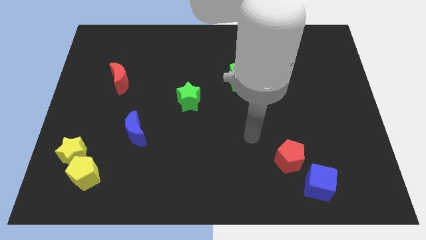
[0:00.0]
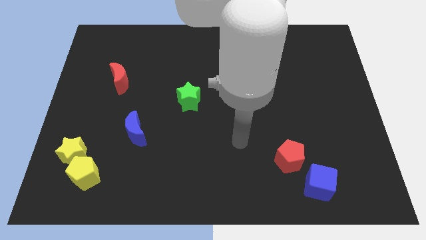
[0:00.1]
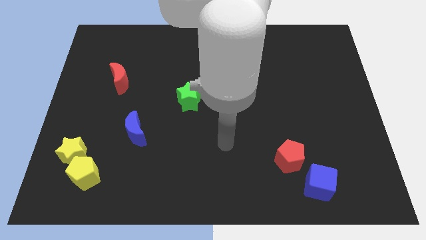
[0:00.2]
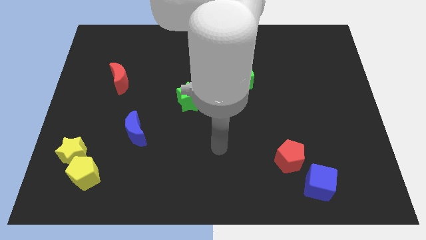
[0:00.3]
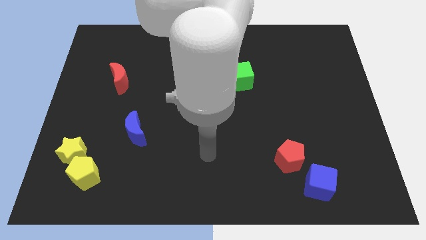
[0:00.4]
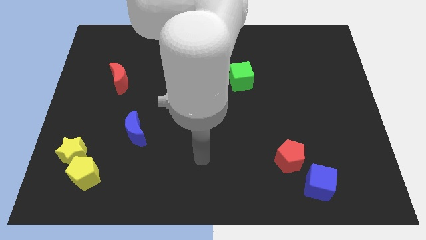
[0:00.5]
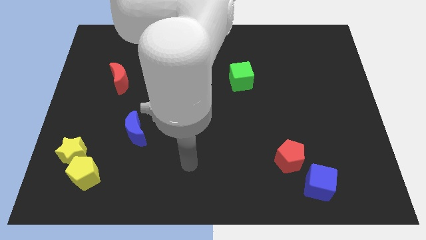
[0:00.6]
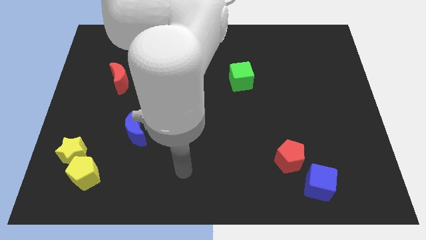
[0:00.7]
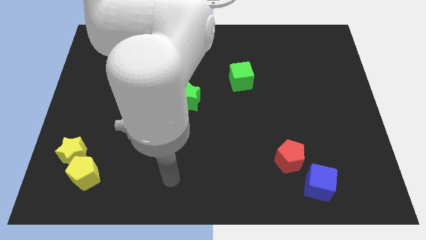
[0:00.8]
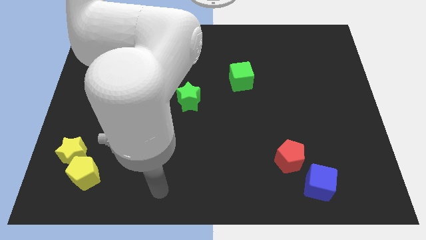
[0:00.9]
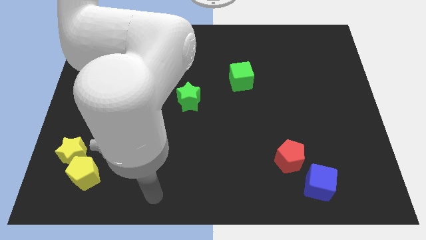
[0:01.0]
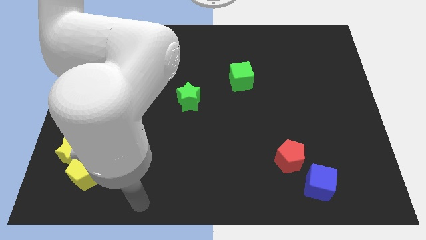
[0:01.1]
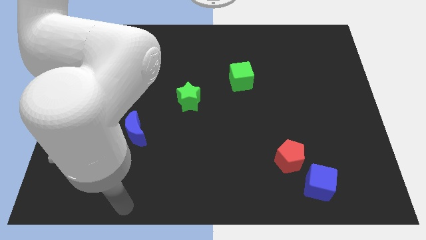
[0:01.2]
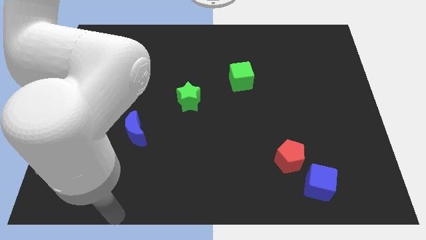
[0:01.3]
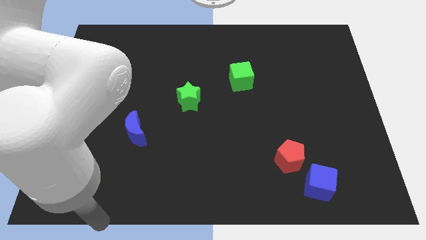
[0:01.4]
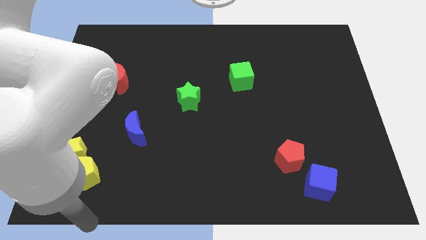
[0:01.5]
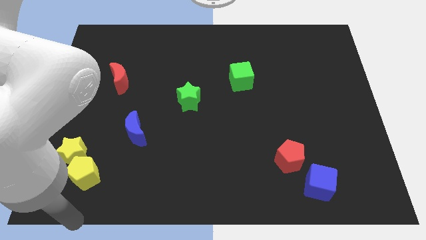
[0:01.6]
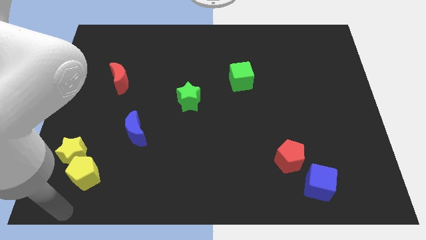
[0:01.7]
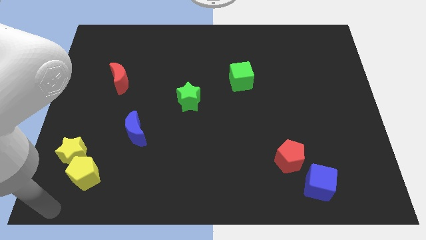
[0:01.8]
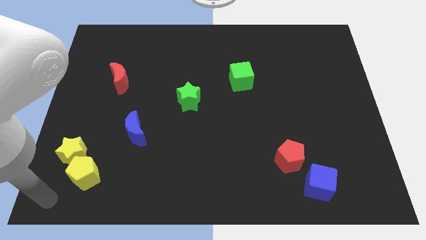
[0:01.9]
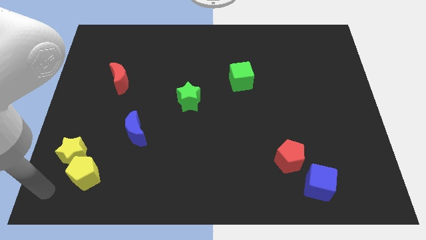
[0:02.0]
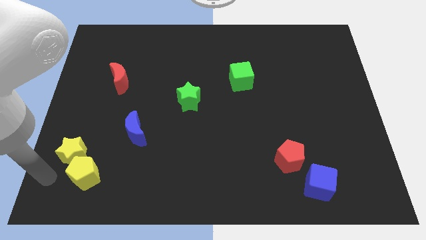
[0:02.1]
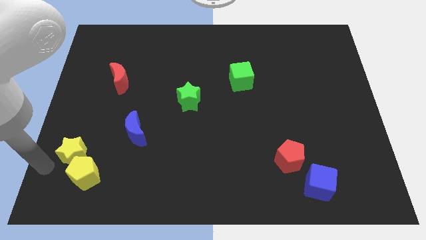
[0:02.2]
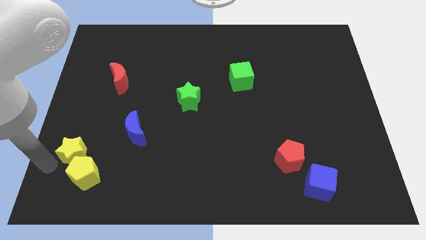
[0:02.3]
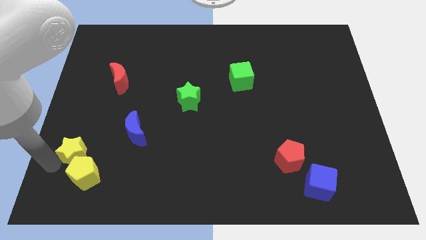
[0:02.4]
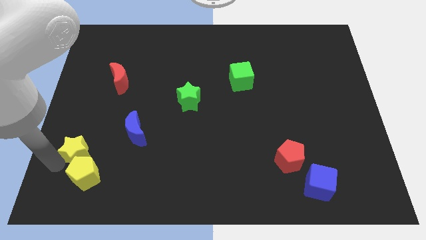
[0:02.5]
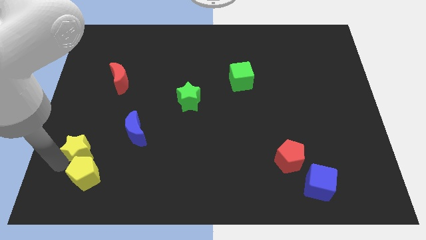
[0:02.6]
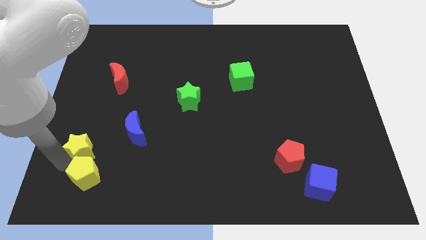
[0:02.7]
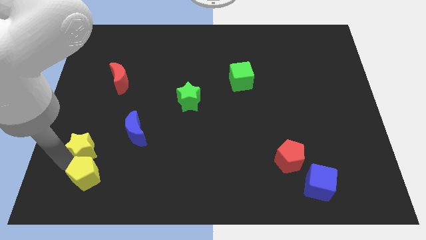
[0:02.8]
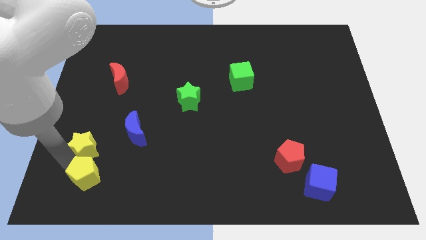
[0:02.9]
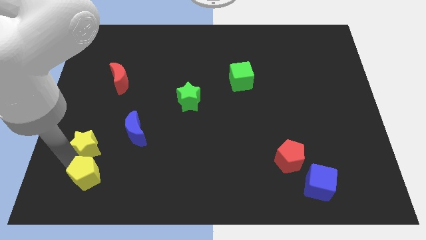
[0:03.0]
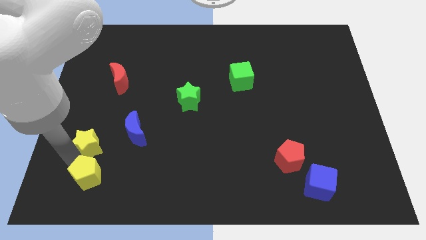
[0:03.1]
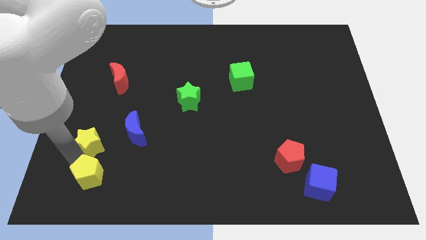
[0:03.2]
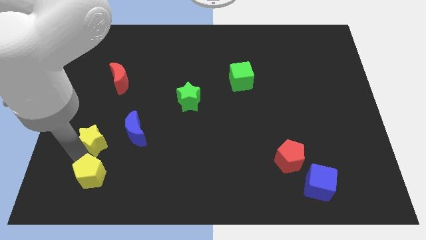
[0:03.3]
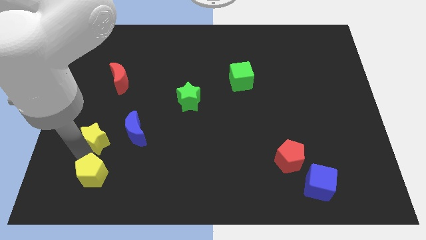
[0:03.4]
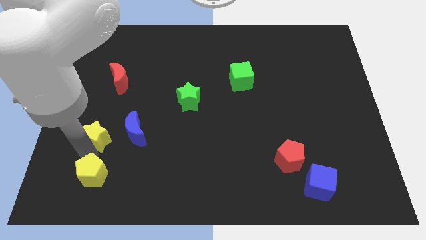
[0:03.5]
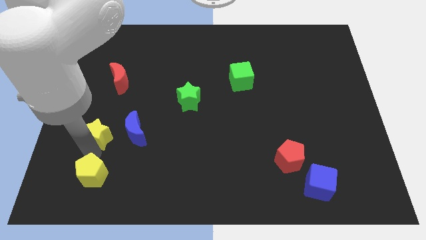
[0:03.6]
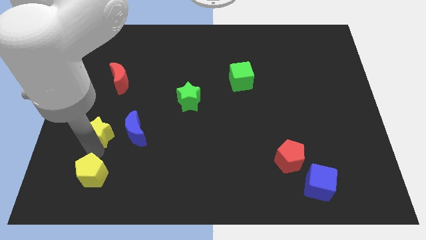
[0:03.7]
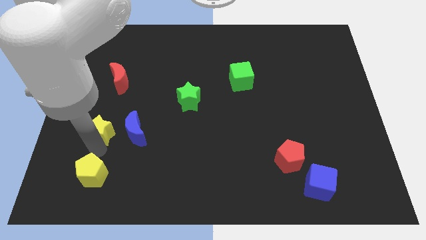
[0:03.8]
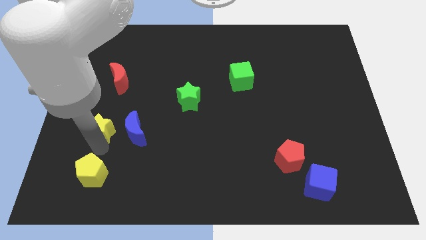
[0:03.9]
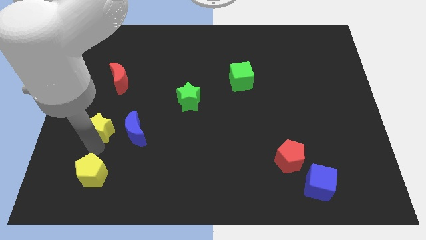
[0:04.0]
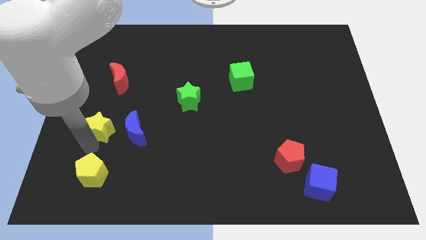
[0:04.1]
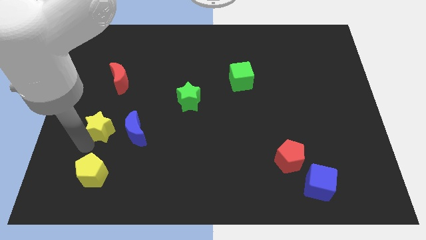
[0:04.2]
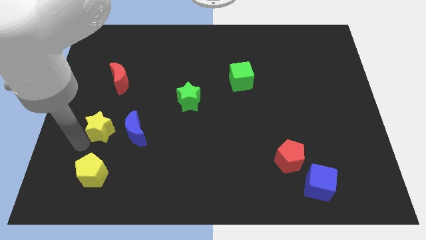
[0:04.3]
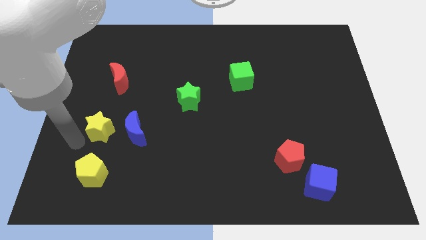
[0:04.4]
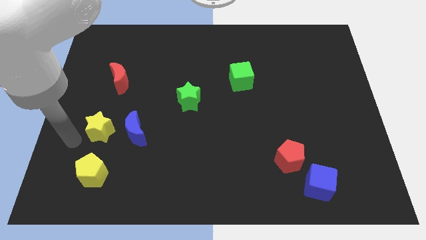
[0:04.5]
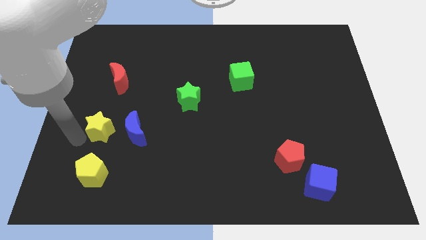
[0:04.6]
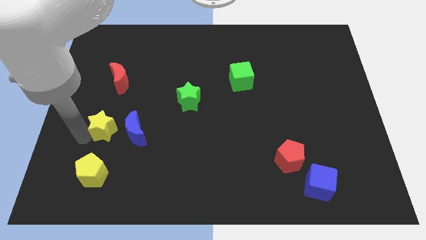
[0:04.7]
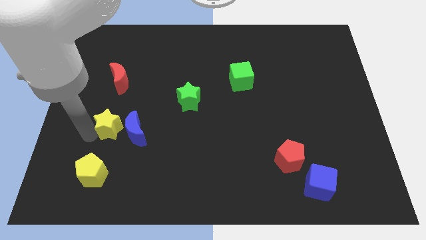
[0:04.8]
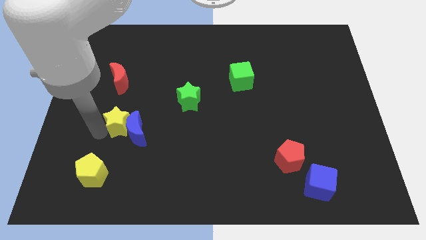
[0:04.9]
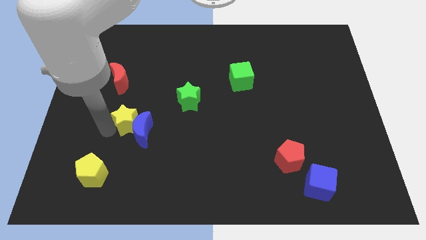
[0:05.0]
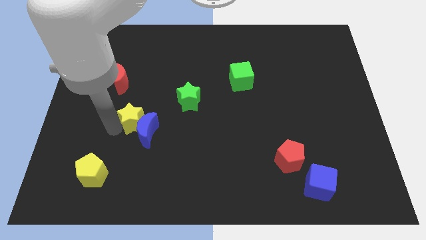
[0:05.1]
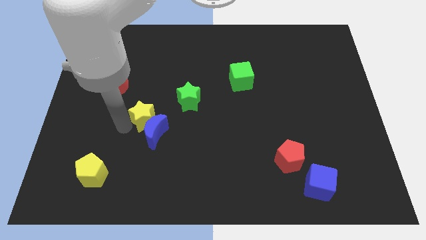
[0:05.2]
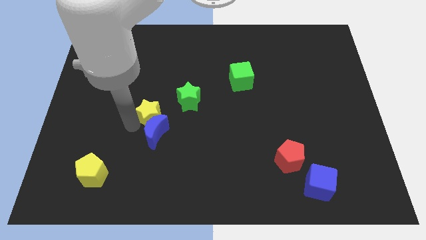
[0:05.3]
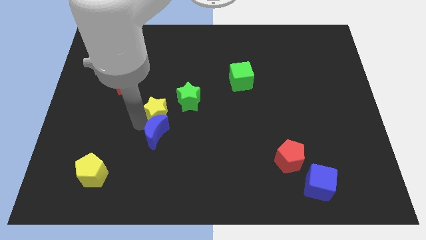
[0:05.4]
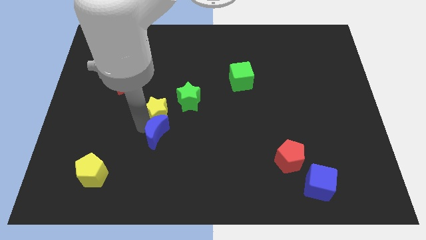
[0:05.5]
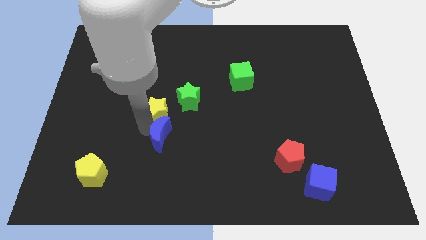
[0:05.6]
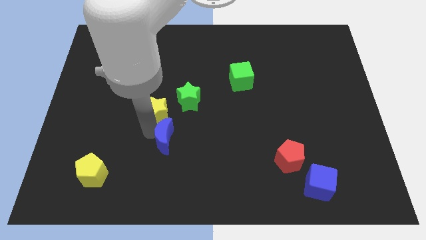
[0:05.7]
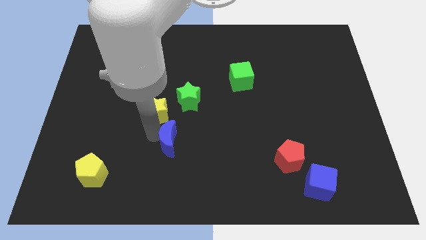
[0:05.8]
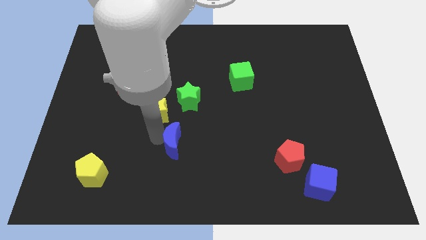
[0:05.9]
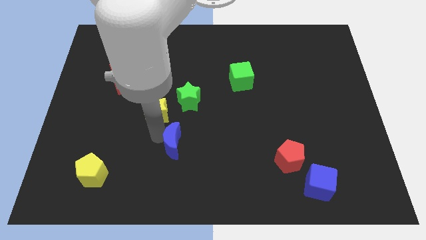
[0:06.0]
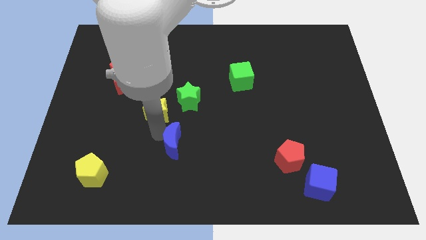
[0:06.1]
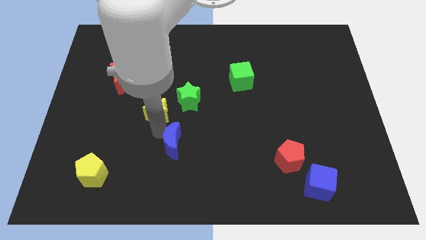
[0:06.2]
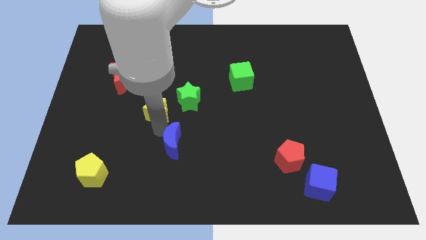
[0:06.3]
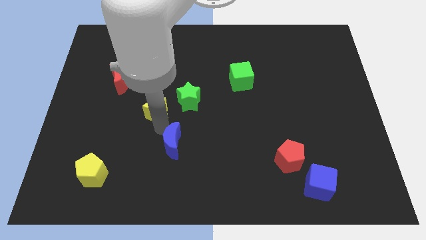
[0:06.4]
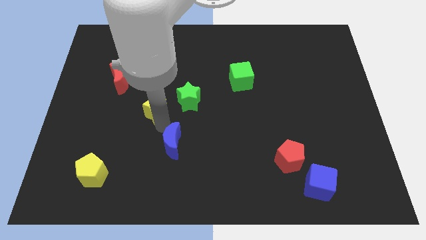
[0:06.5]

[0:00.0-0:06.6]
slide the yellow star up and right diagonally

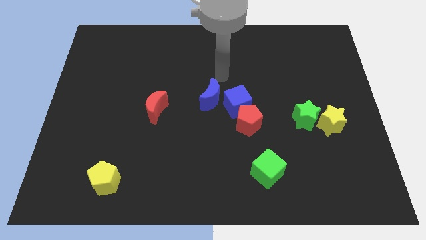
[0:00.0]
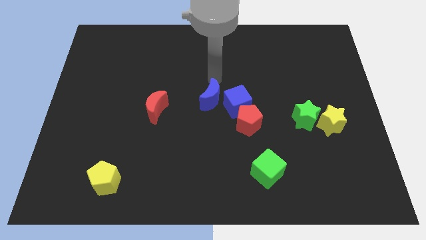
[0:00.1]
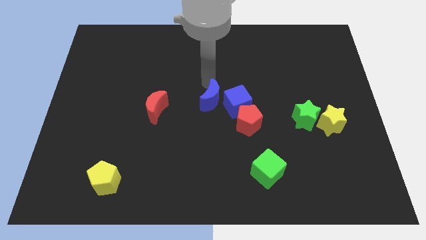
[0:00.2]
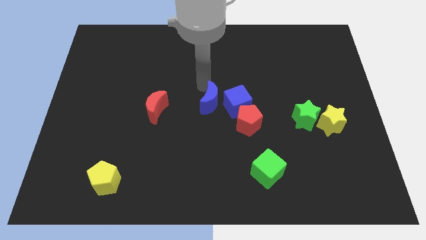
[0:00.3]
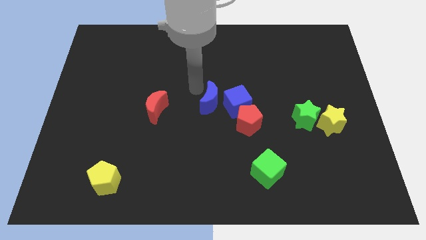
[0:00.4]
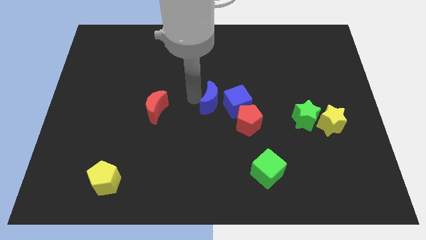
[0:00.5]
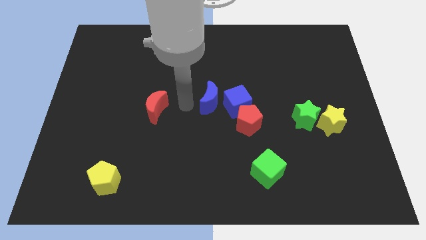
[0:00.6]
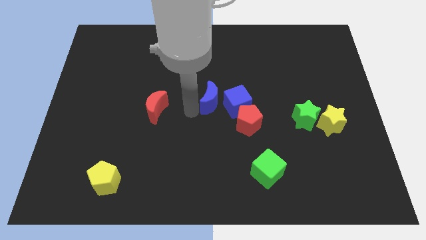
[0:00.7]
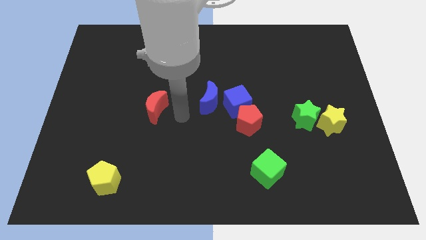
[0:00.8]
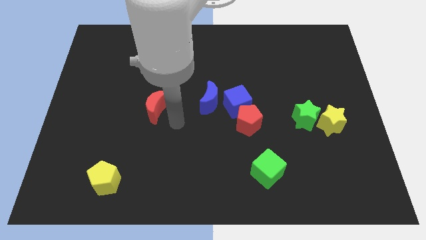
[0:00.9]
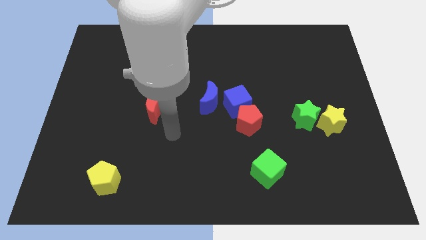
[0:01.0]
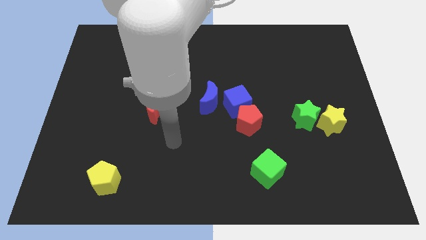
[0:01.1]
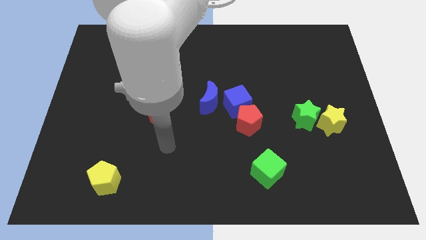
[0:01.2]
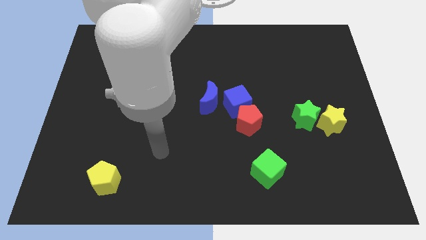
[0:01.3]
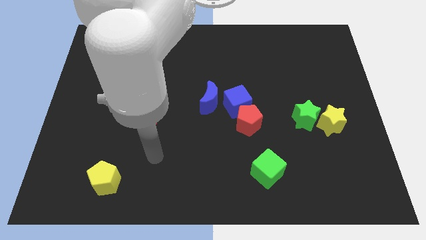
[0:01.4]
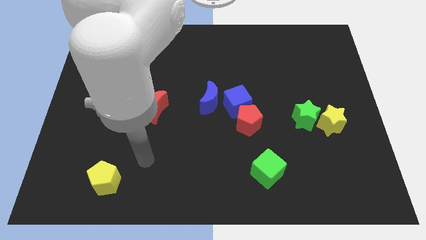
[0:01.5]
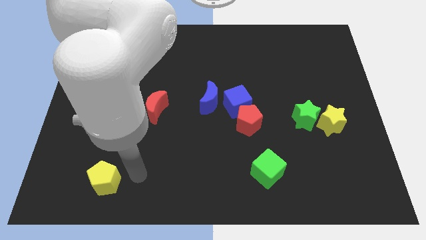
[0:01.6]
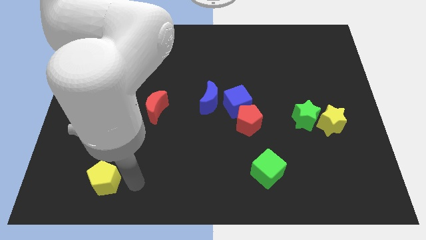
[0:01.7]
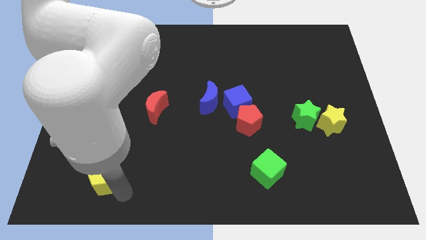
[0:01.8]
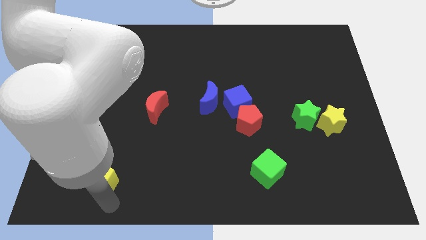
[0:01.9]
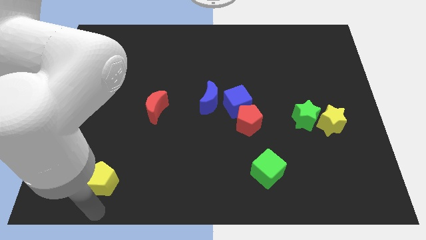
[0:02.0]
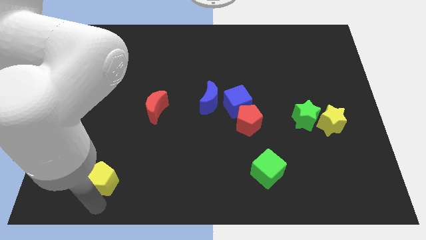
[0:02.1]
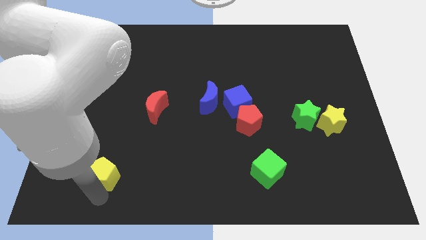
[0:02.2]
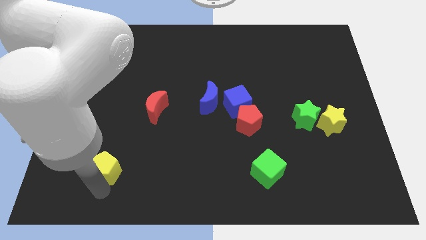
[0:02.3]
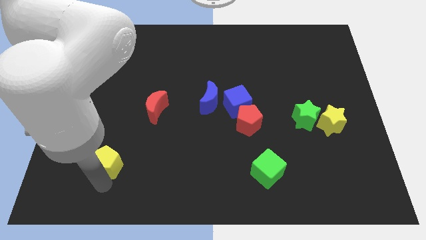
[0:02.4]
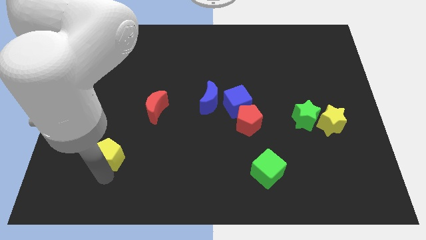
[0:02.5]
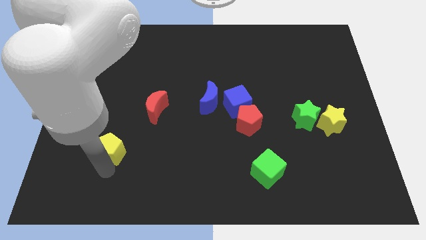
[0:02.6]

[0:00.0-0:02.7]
slide the yellow pentagon up a little
